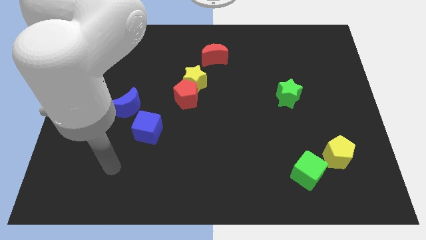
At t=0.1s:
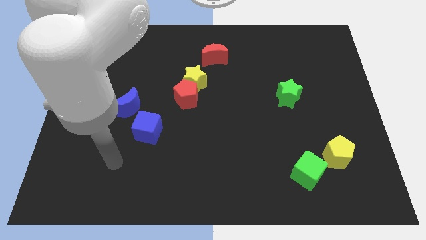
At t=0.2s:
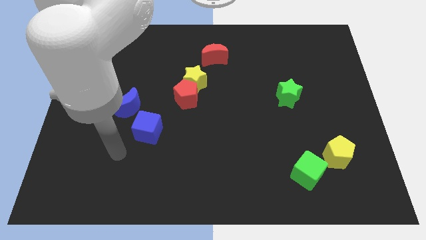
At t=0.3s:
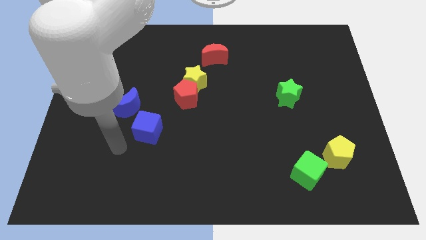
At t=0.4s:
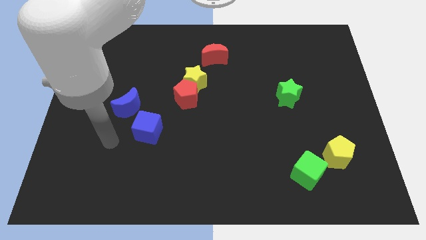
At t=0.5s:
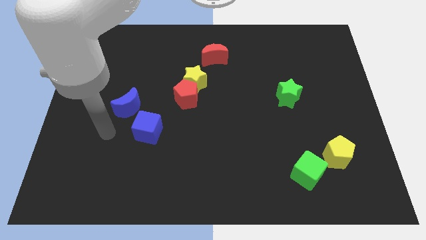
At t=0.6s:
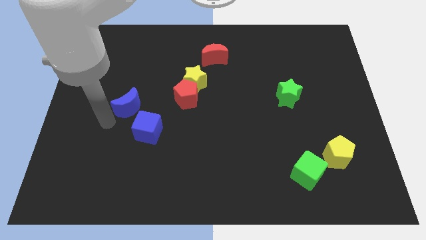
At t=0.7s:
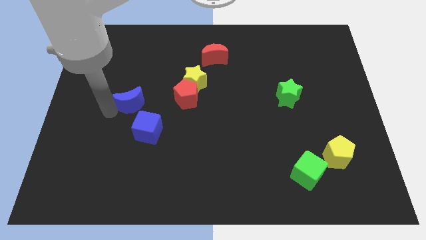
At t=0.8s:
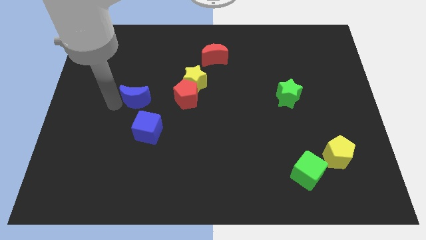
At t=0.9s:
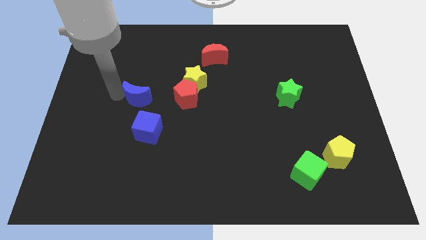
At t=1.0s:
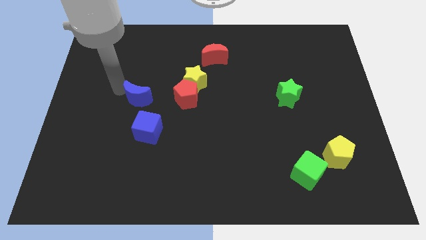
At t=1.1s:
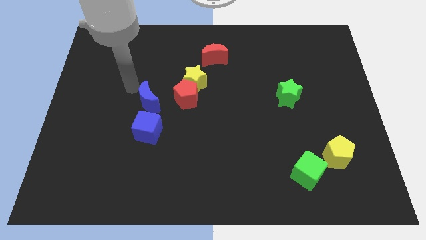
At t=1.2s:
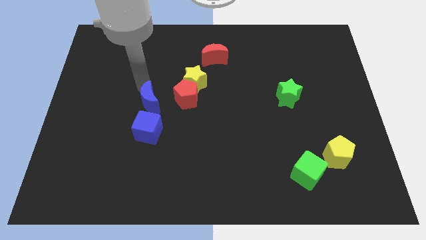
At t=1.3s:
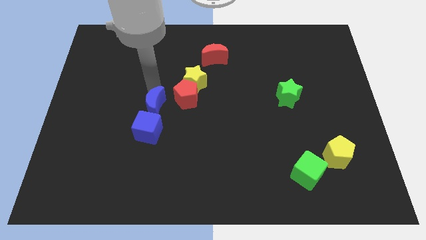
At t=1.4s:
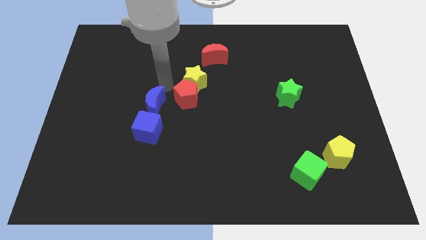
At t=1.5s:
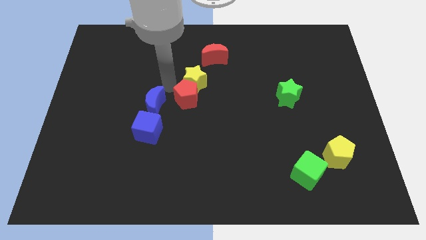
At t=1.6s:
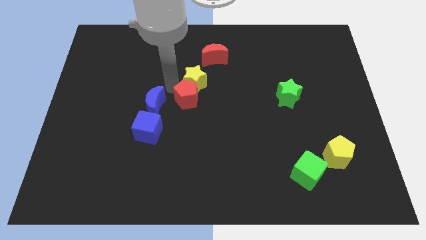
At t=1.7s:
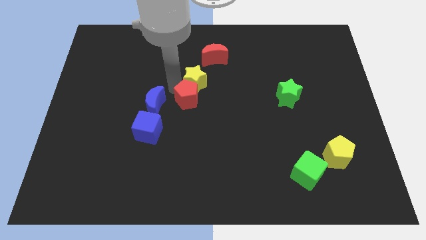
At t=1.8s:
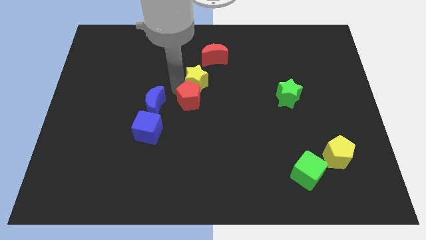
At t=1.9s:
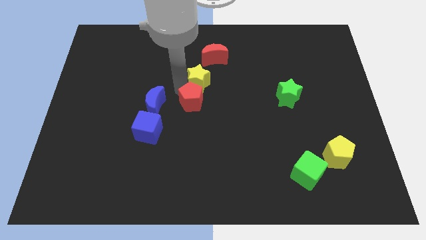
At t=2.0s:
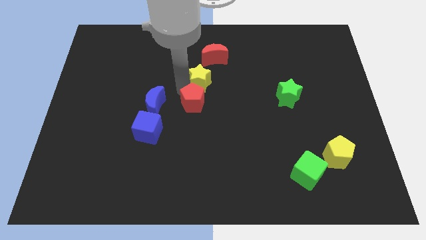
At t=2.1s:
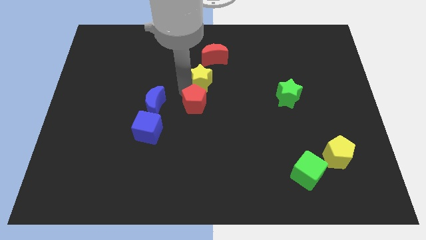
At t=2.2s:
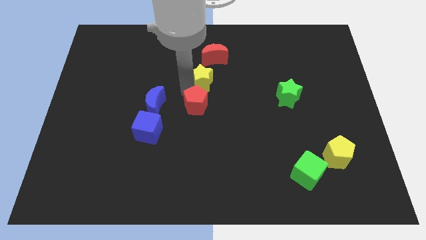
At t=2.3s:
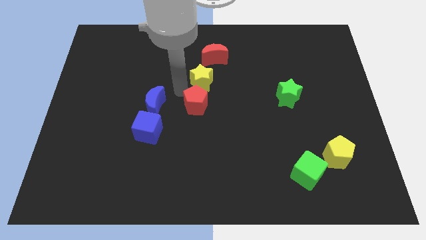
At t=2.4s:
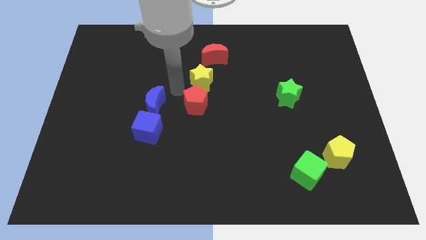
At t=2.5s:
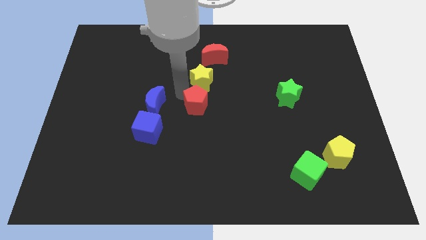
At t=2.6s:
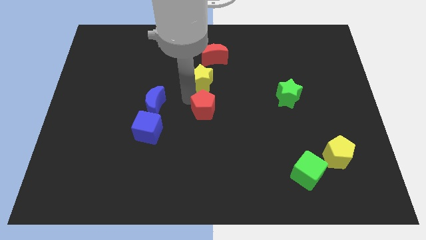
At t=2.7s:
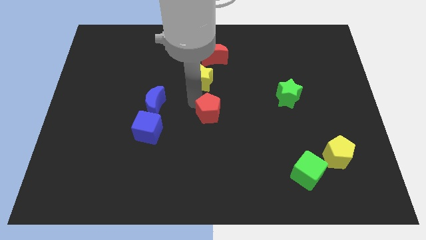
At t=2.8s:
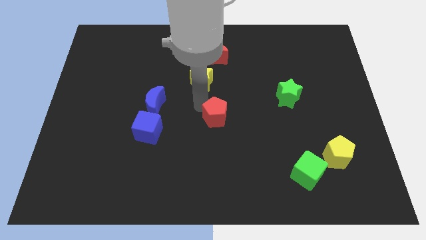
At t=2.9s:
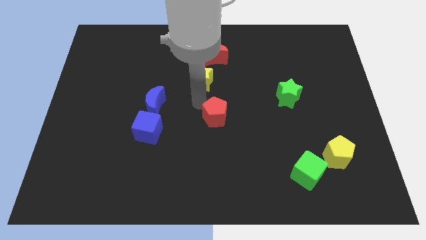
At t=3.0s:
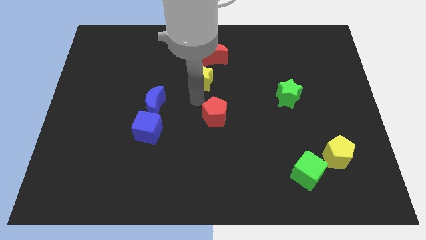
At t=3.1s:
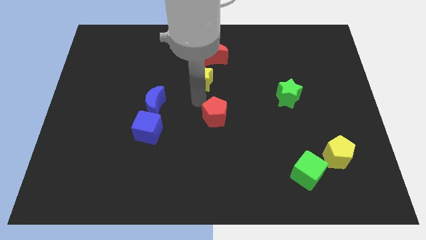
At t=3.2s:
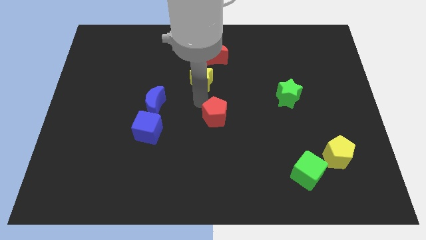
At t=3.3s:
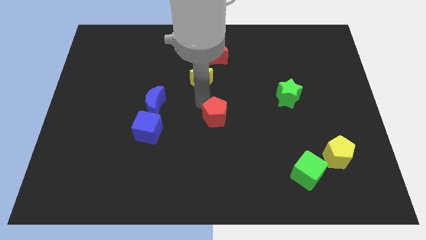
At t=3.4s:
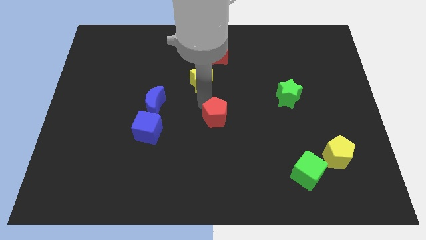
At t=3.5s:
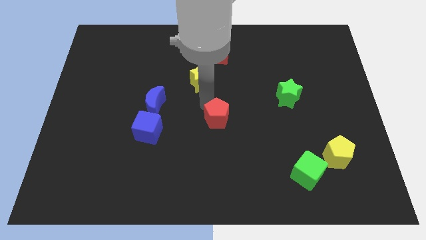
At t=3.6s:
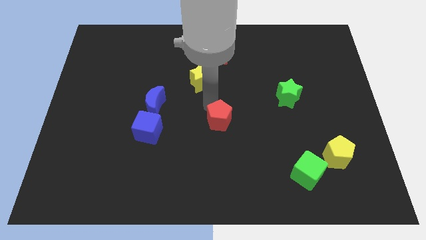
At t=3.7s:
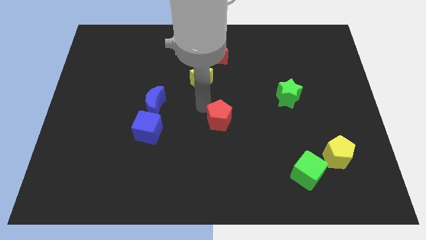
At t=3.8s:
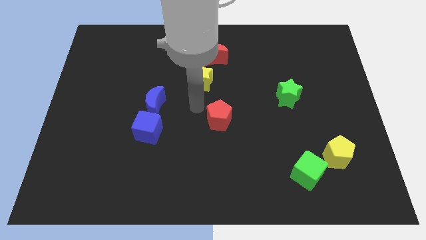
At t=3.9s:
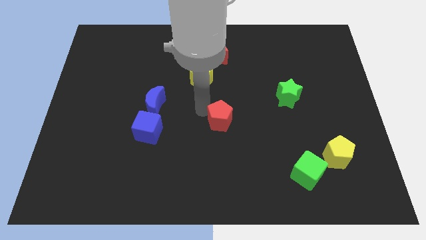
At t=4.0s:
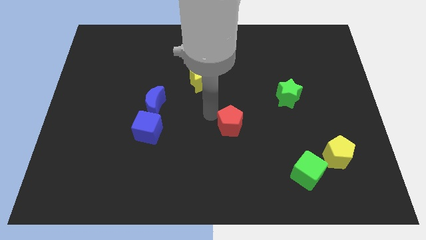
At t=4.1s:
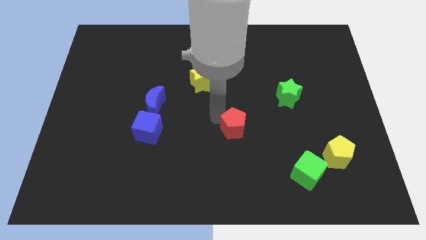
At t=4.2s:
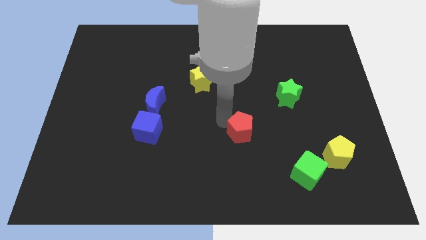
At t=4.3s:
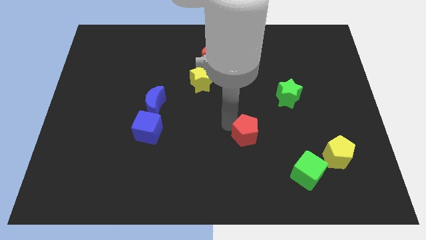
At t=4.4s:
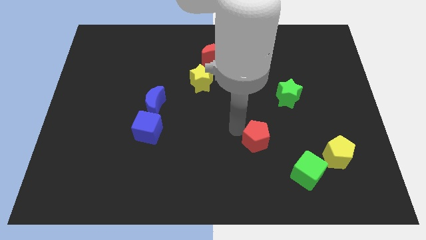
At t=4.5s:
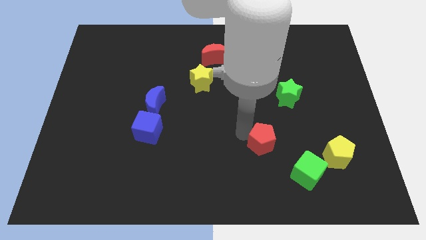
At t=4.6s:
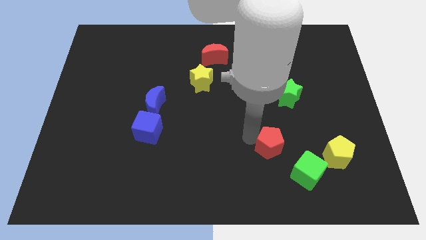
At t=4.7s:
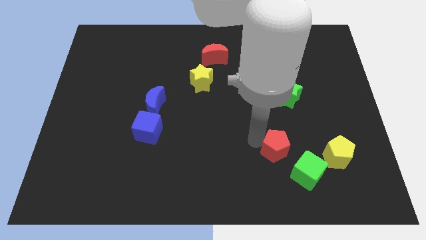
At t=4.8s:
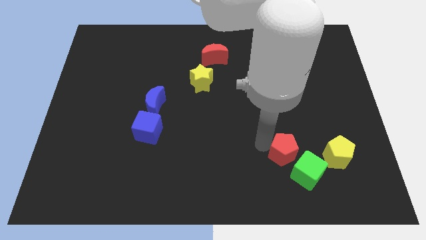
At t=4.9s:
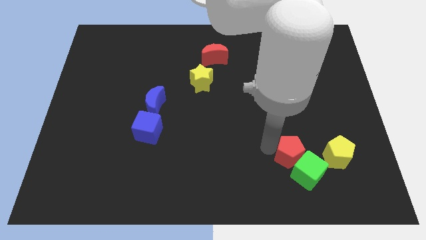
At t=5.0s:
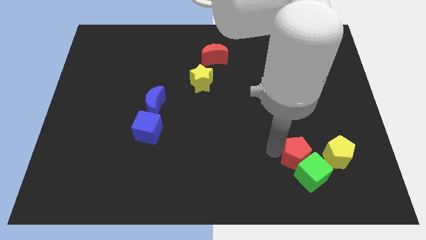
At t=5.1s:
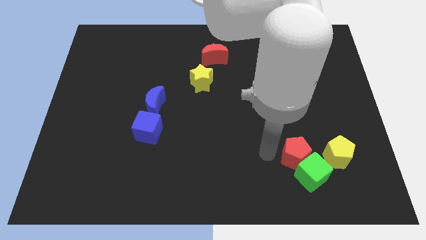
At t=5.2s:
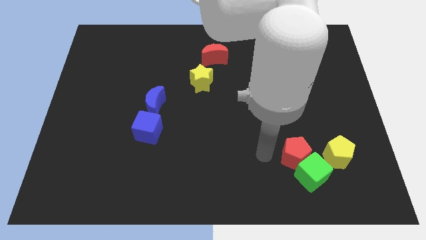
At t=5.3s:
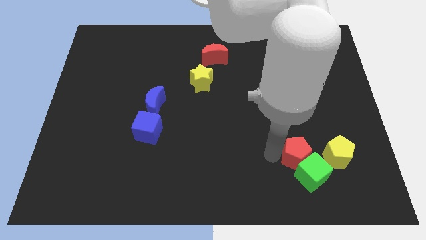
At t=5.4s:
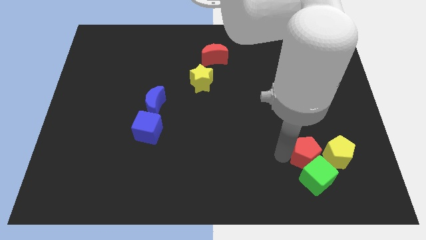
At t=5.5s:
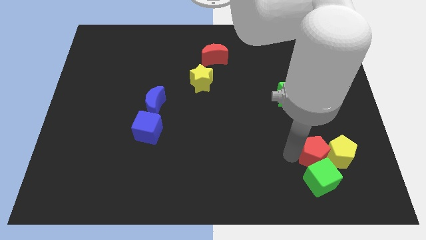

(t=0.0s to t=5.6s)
push the red pentagon next to the yellow pentagon

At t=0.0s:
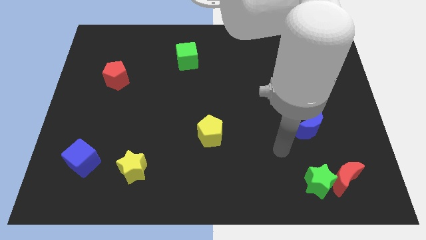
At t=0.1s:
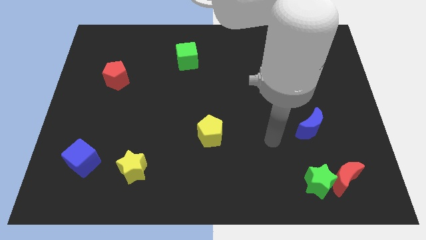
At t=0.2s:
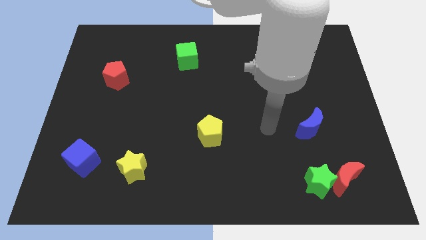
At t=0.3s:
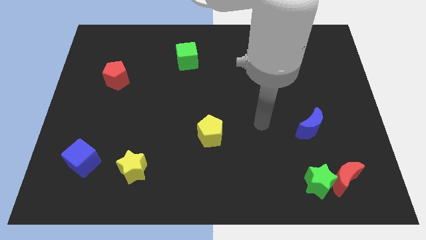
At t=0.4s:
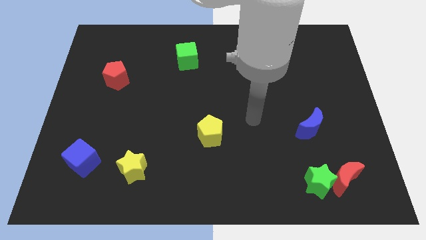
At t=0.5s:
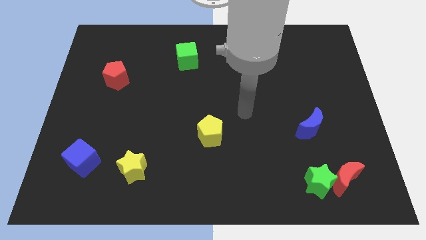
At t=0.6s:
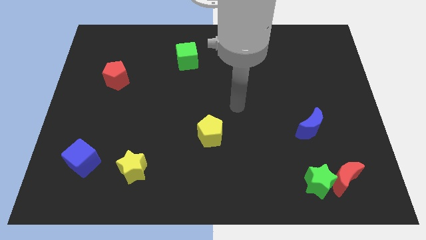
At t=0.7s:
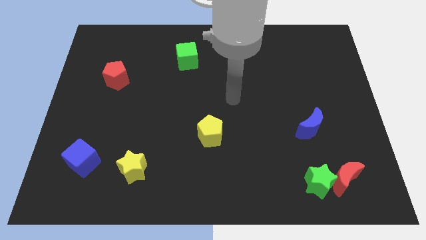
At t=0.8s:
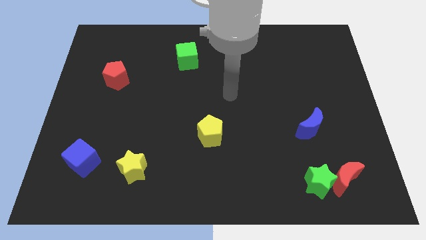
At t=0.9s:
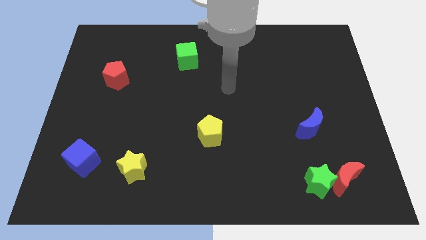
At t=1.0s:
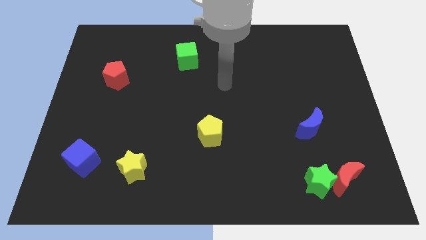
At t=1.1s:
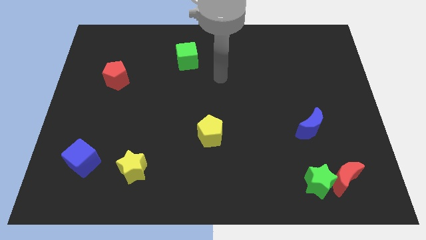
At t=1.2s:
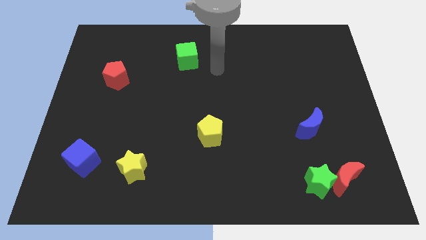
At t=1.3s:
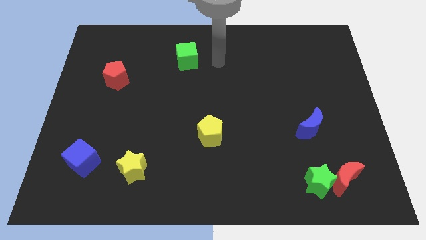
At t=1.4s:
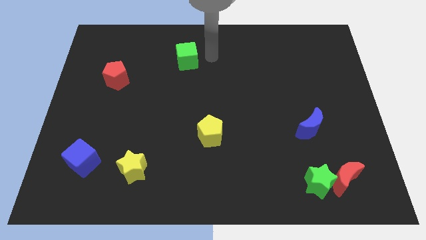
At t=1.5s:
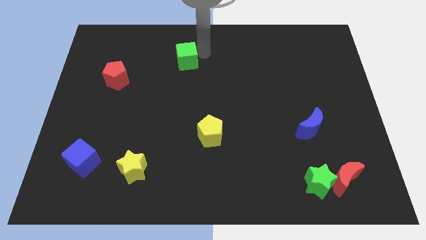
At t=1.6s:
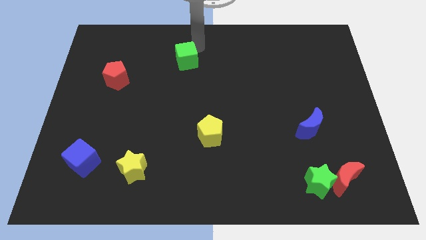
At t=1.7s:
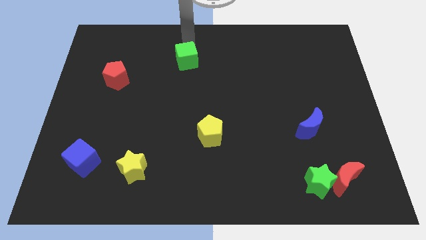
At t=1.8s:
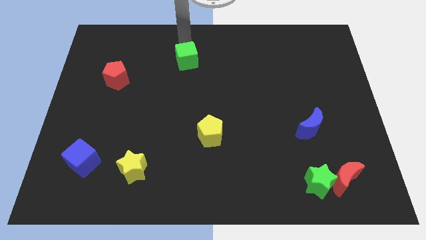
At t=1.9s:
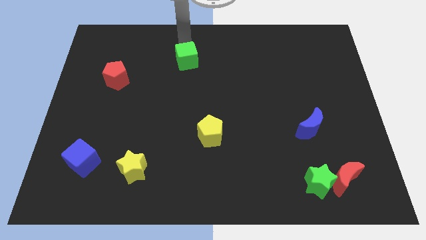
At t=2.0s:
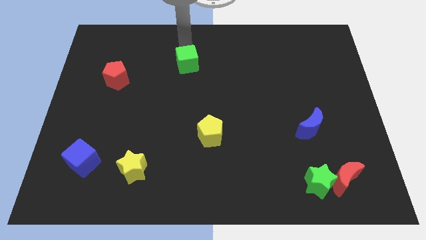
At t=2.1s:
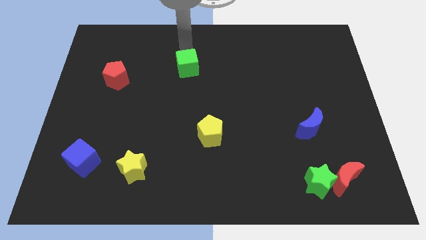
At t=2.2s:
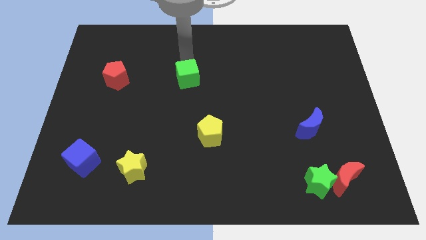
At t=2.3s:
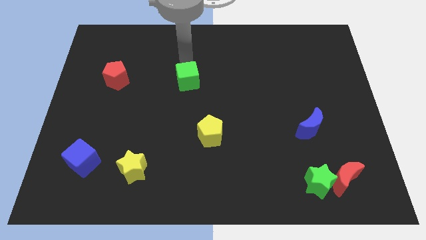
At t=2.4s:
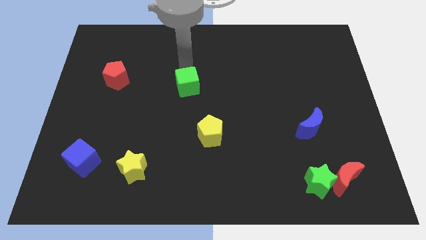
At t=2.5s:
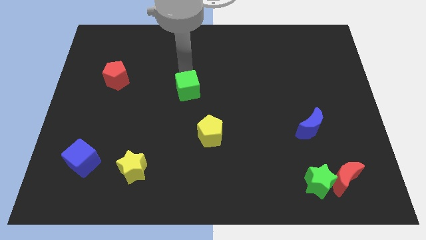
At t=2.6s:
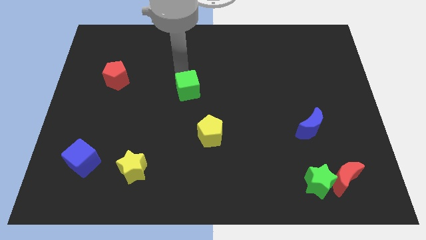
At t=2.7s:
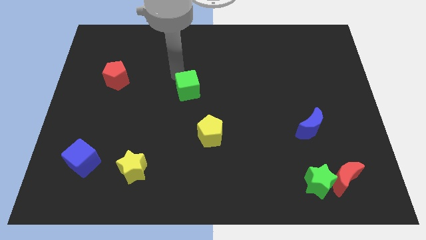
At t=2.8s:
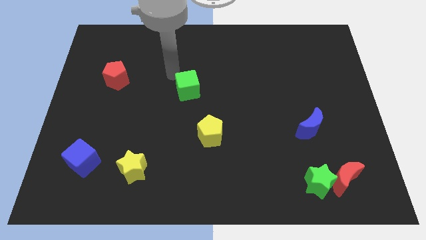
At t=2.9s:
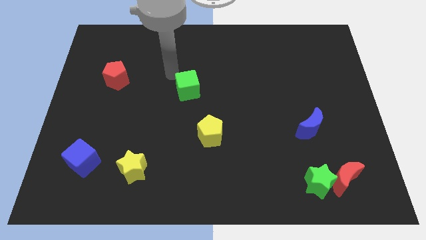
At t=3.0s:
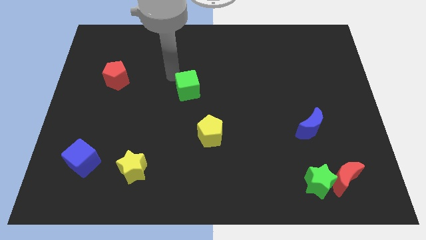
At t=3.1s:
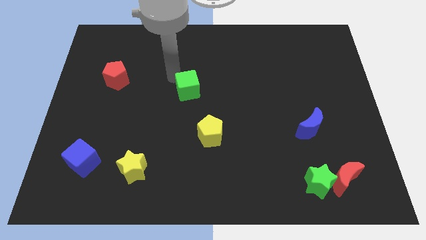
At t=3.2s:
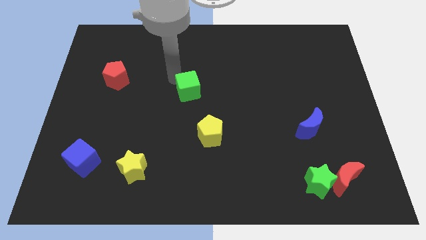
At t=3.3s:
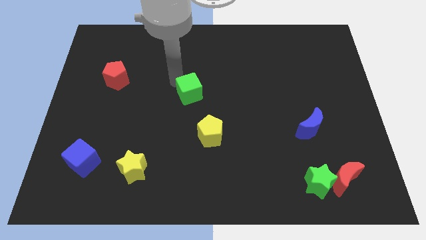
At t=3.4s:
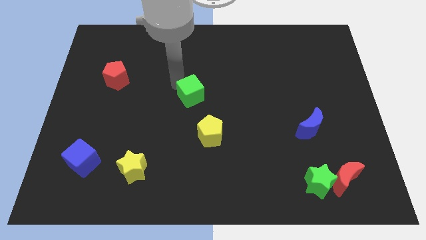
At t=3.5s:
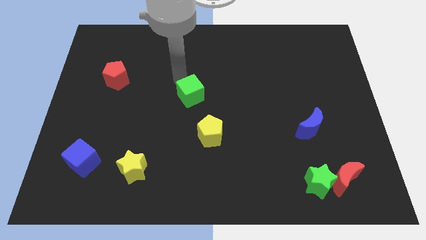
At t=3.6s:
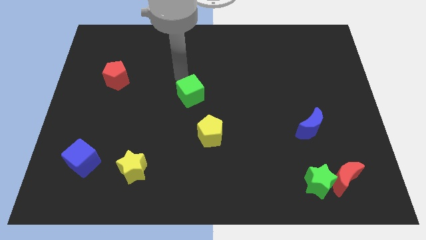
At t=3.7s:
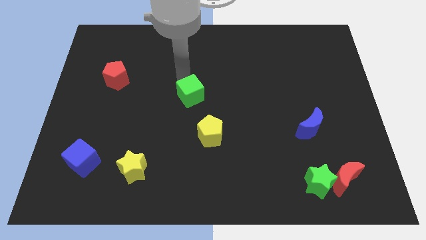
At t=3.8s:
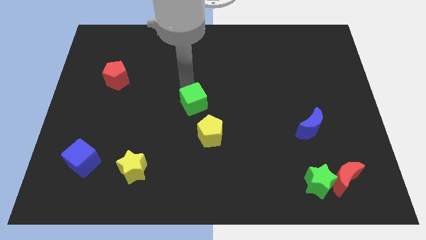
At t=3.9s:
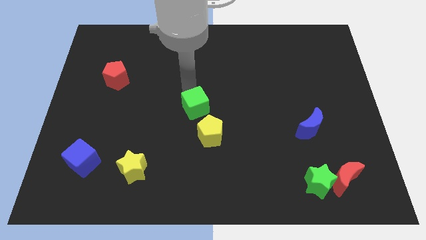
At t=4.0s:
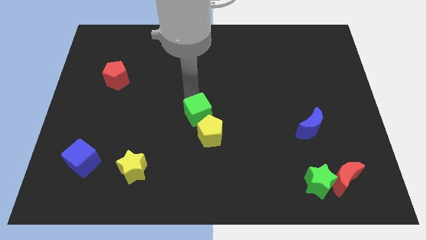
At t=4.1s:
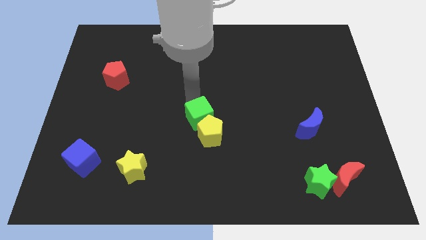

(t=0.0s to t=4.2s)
push the green cube to the yellow pentagon
